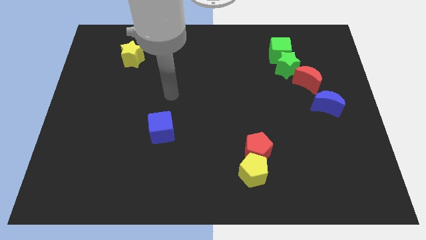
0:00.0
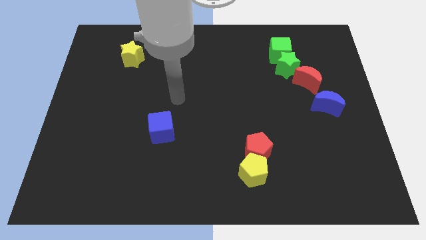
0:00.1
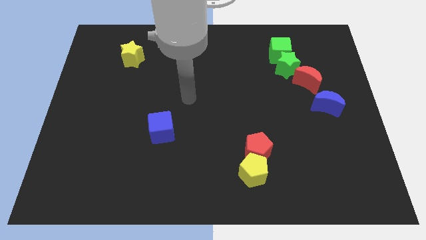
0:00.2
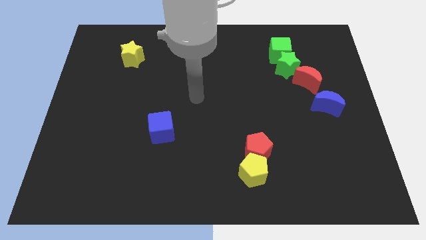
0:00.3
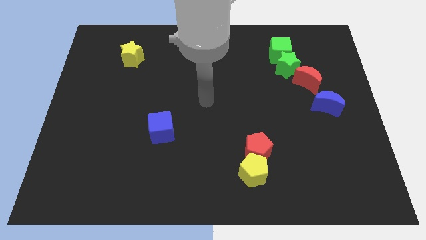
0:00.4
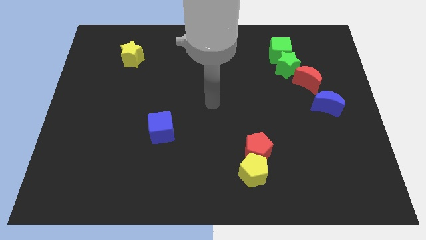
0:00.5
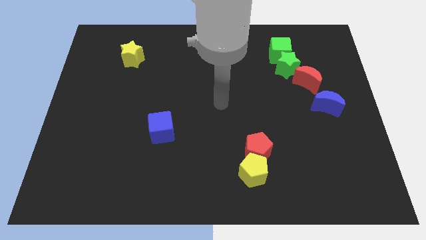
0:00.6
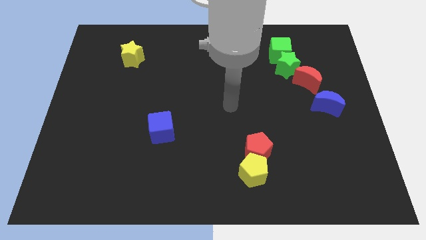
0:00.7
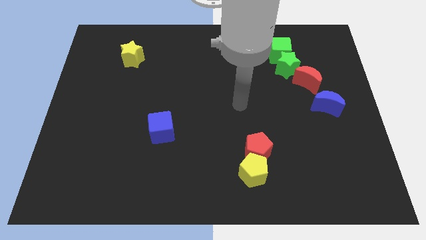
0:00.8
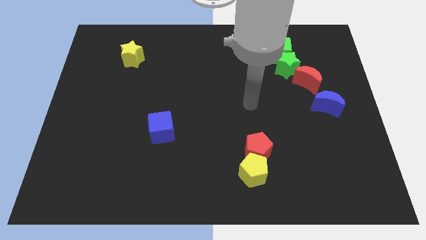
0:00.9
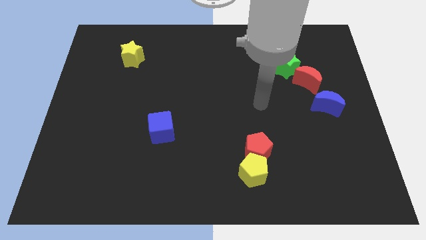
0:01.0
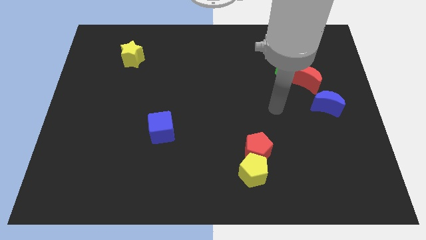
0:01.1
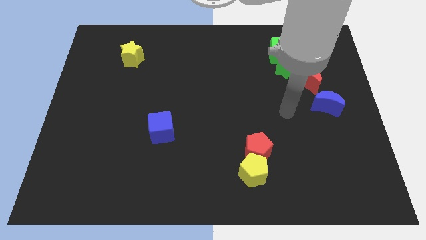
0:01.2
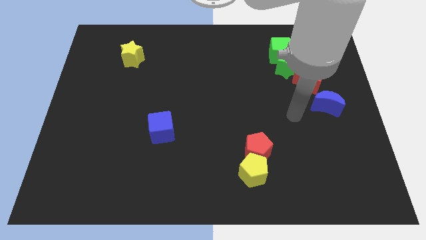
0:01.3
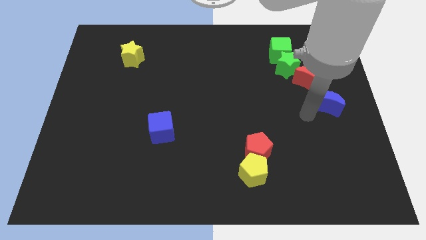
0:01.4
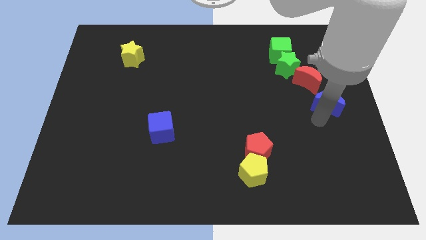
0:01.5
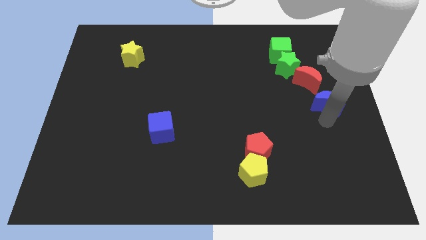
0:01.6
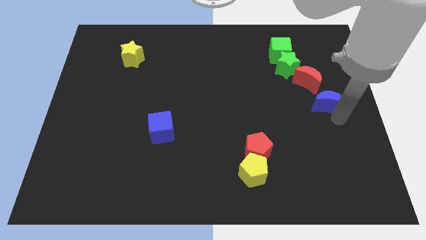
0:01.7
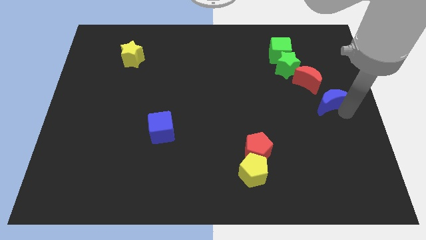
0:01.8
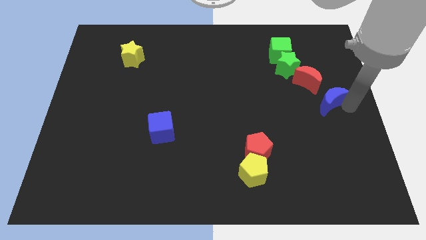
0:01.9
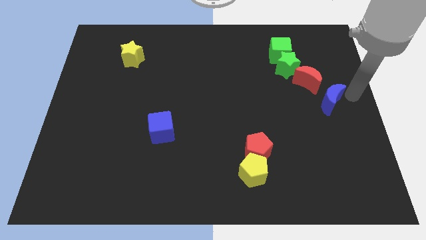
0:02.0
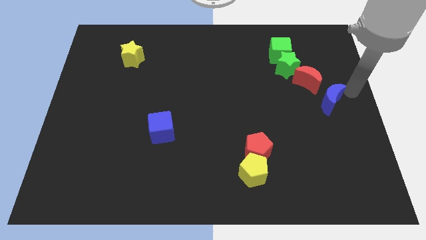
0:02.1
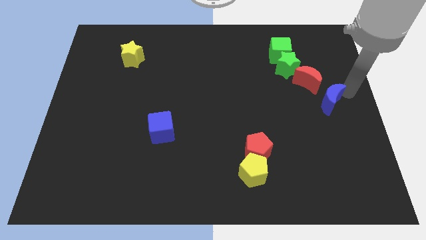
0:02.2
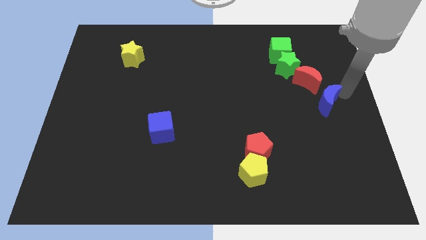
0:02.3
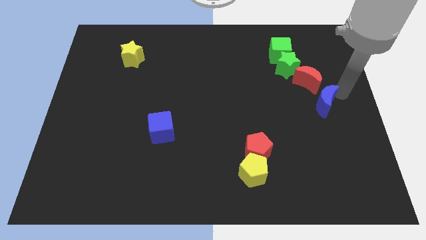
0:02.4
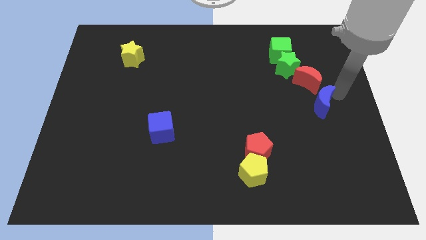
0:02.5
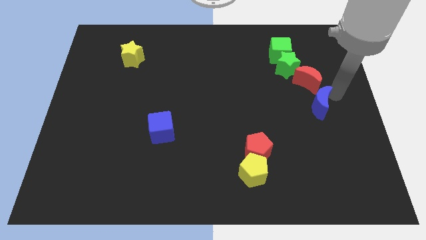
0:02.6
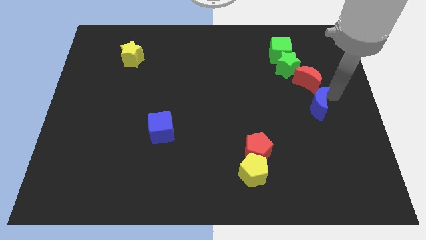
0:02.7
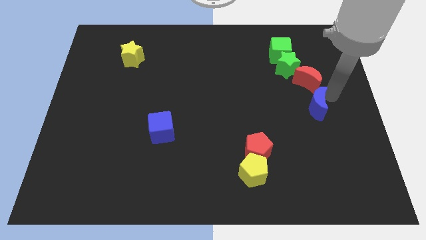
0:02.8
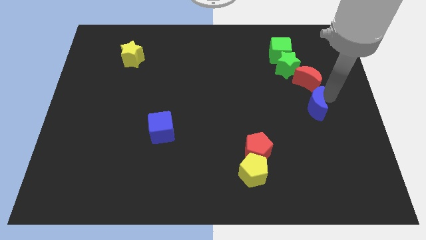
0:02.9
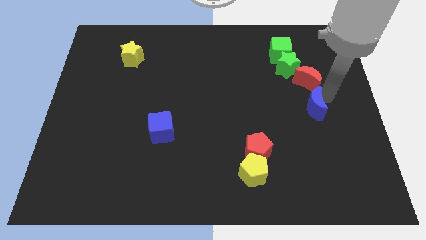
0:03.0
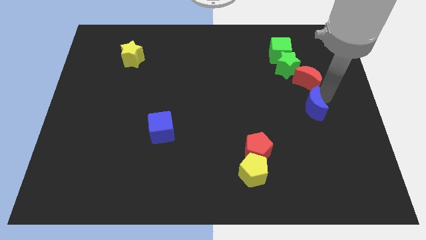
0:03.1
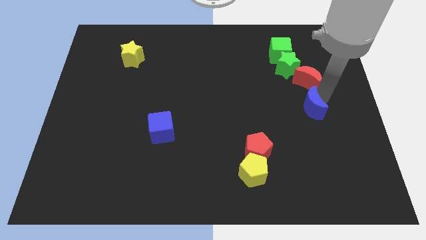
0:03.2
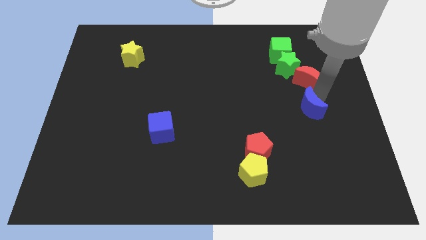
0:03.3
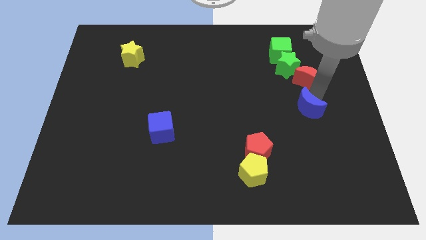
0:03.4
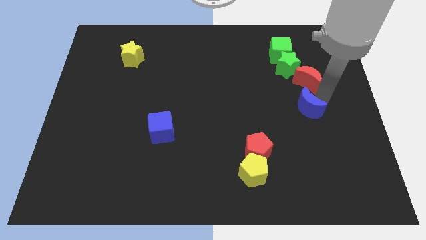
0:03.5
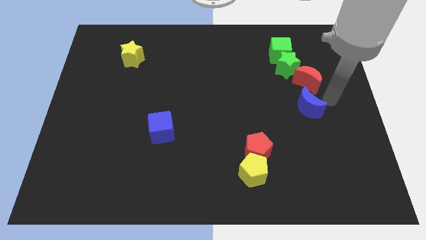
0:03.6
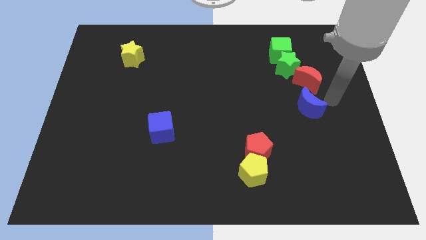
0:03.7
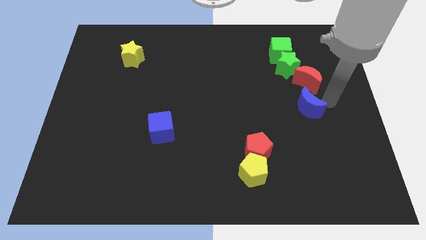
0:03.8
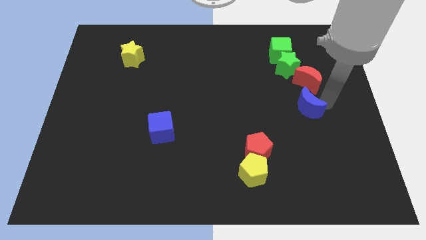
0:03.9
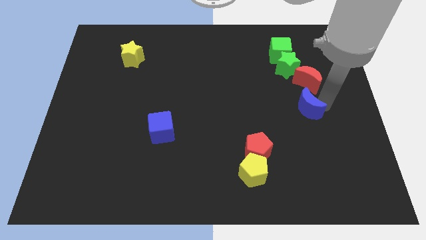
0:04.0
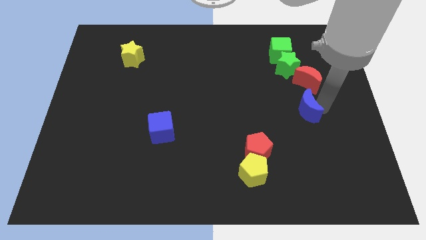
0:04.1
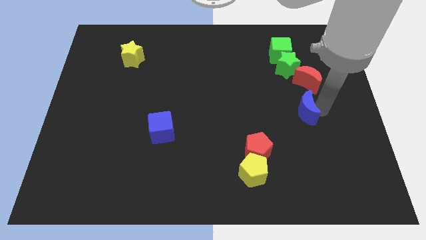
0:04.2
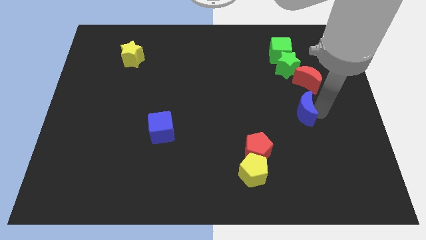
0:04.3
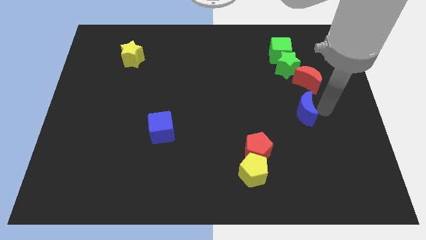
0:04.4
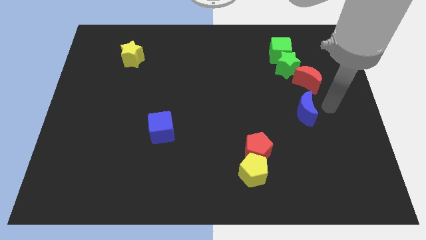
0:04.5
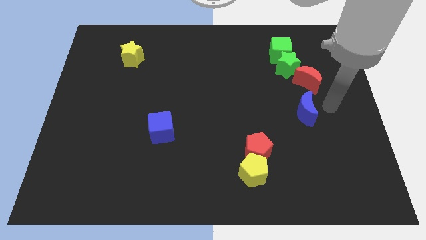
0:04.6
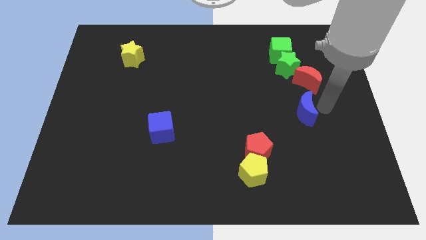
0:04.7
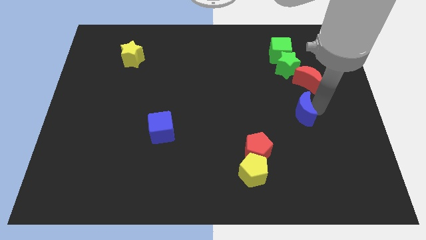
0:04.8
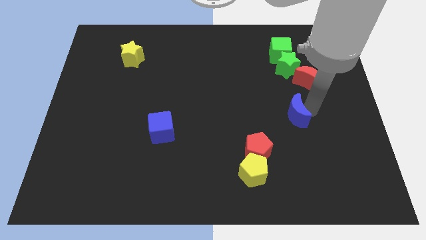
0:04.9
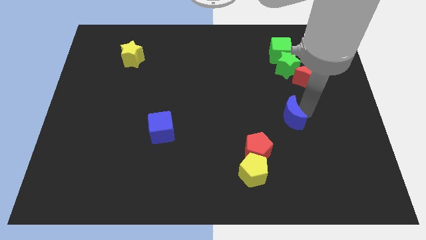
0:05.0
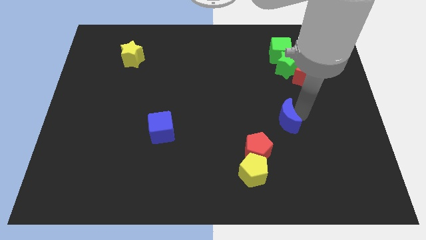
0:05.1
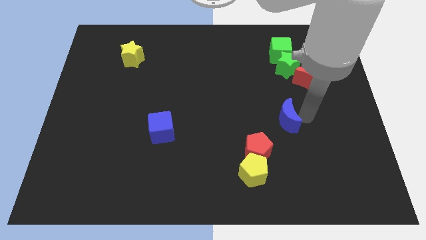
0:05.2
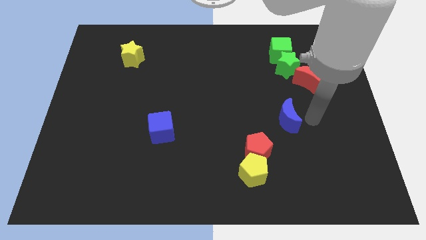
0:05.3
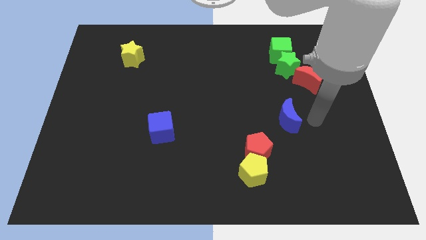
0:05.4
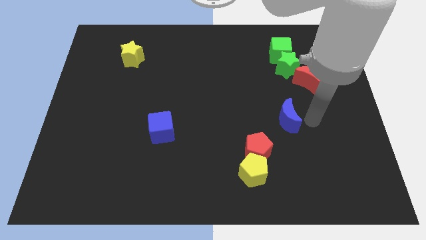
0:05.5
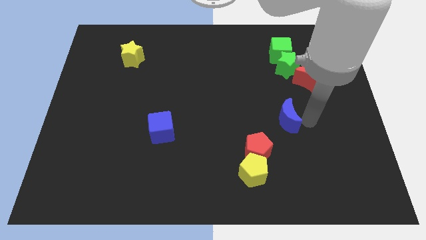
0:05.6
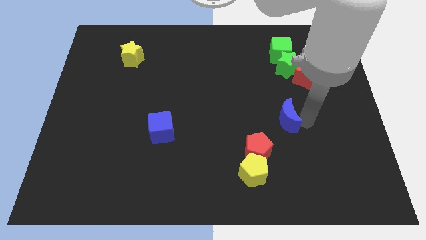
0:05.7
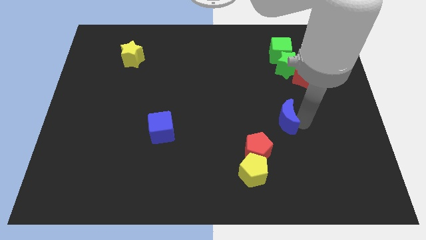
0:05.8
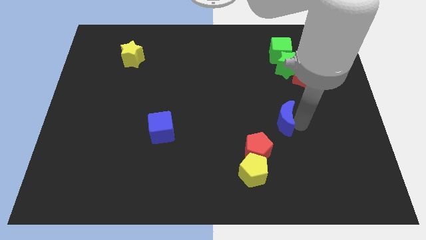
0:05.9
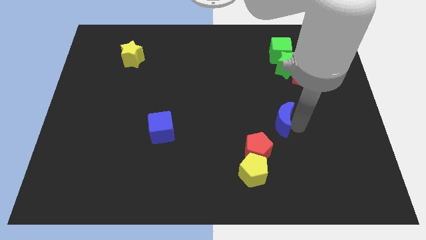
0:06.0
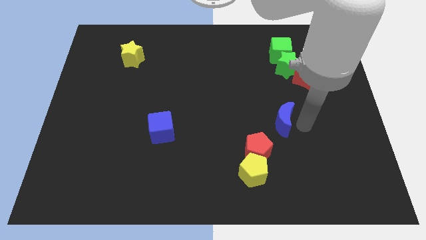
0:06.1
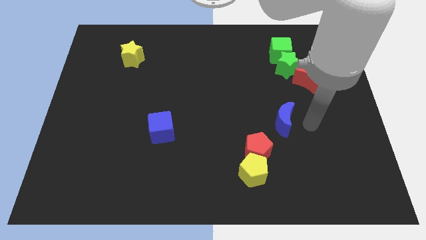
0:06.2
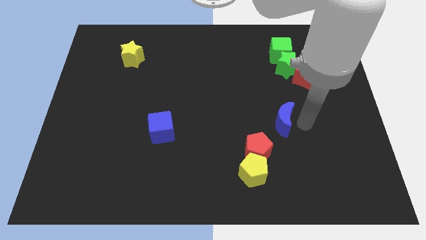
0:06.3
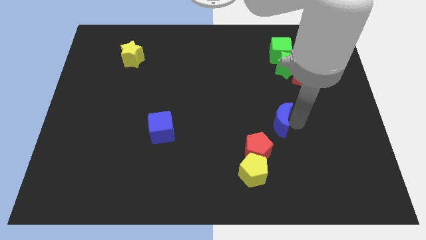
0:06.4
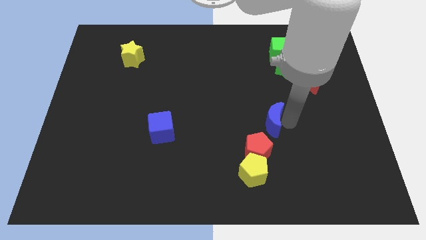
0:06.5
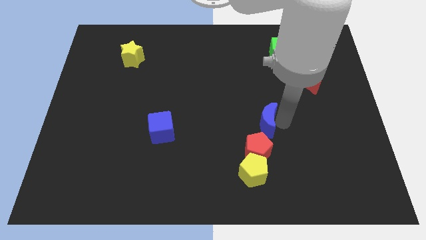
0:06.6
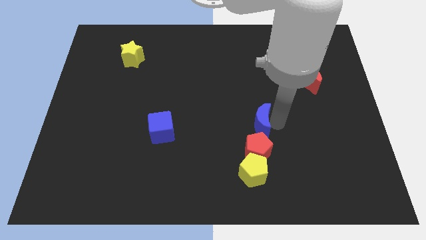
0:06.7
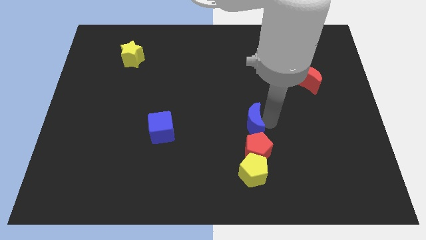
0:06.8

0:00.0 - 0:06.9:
slide the blue moon to the top left side of the red pentagon
